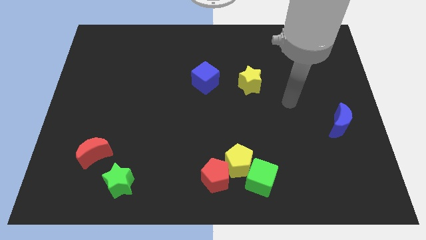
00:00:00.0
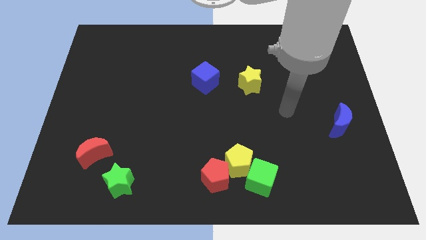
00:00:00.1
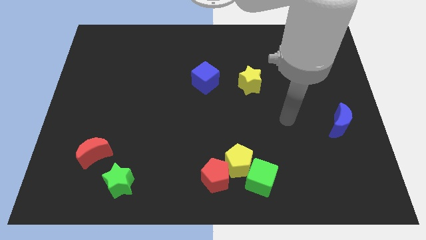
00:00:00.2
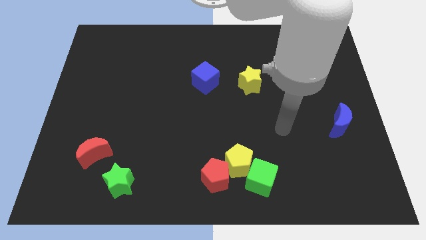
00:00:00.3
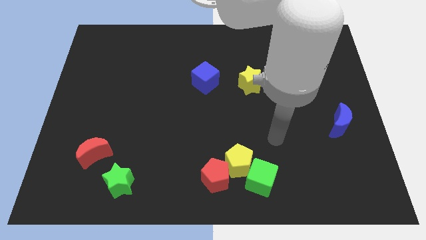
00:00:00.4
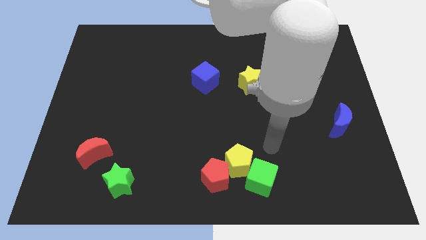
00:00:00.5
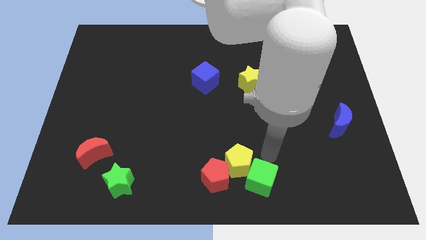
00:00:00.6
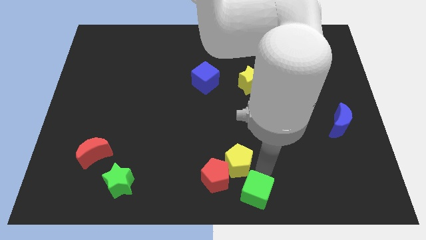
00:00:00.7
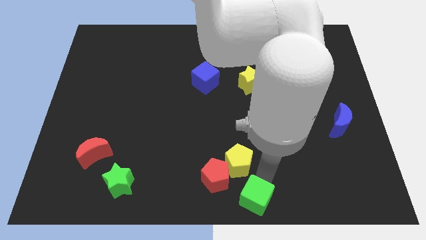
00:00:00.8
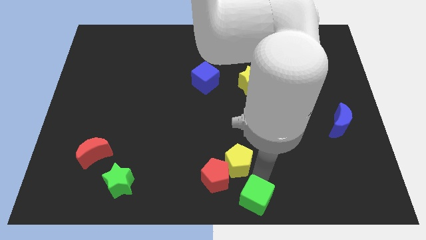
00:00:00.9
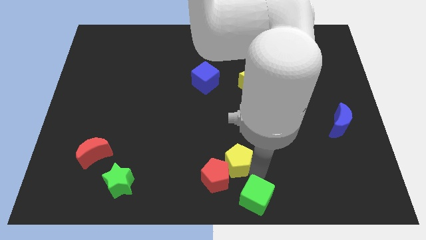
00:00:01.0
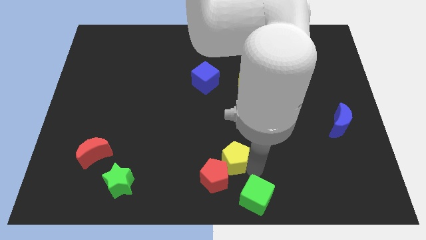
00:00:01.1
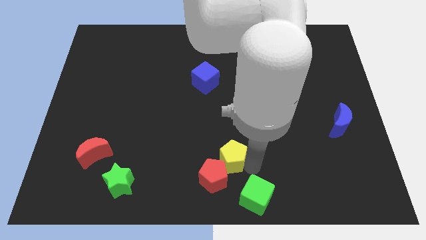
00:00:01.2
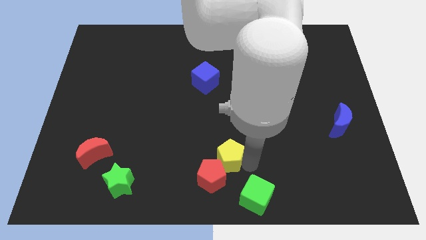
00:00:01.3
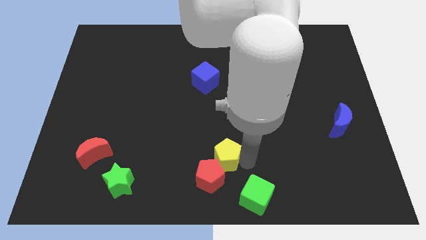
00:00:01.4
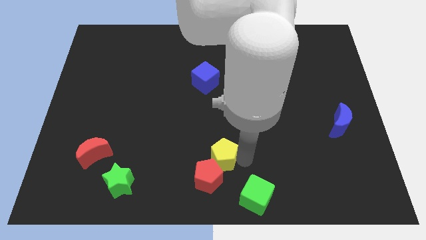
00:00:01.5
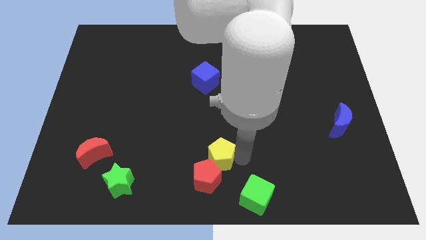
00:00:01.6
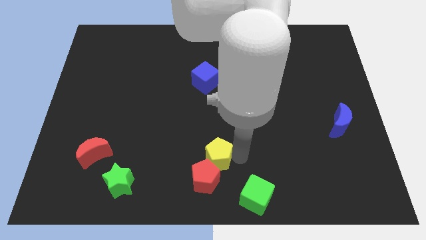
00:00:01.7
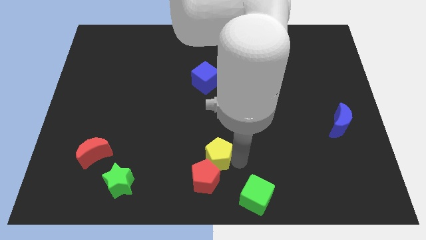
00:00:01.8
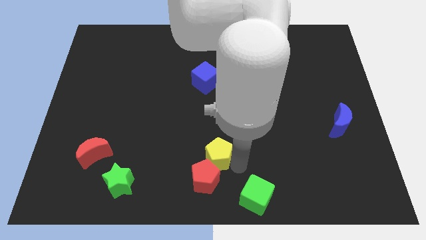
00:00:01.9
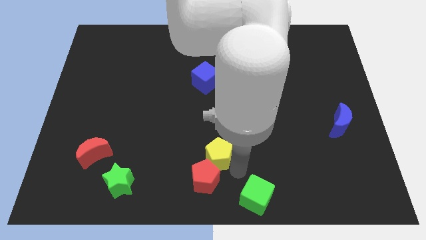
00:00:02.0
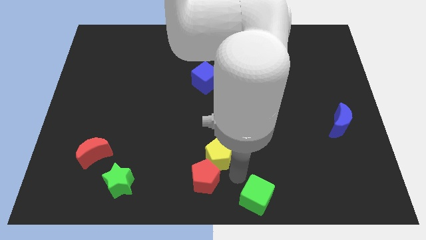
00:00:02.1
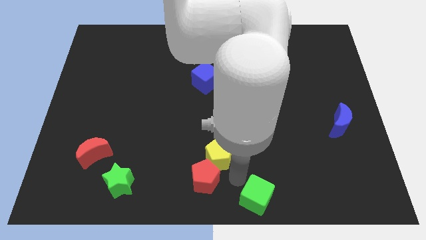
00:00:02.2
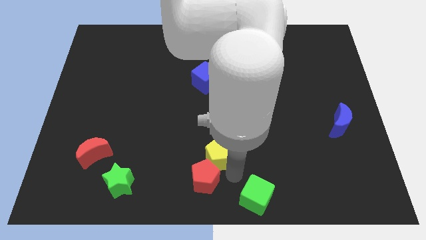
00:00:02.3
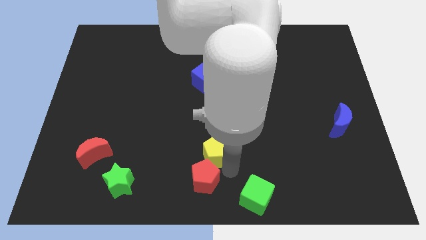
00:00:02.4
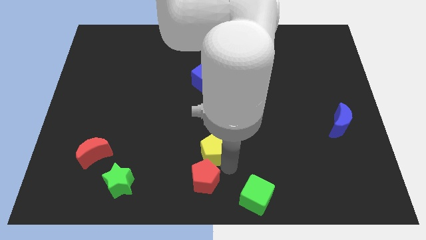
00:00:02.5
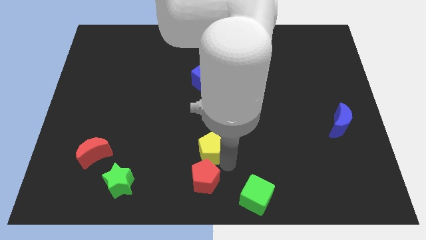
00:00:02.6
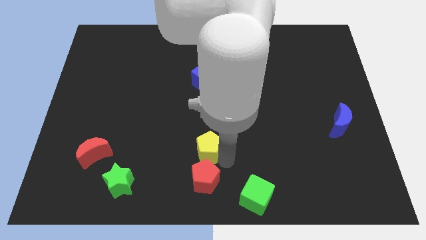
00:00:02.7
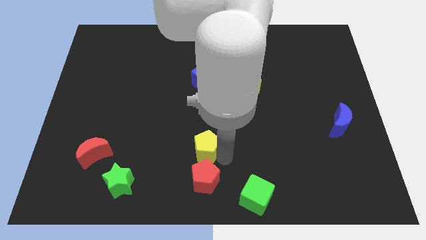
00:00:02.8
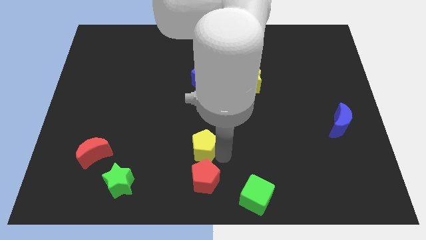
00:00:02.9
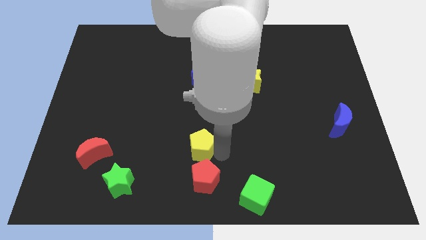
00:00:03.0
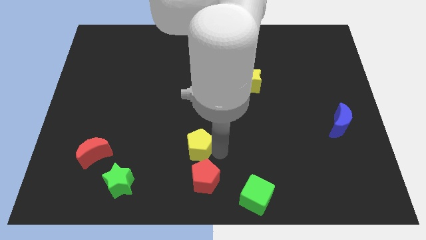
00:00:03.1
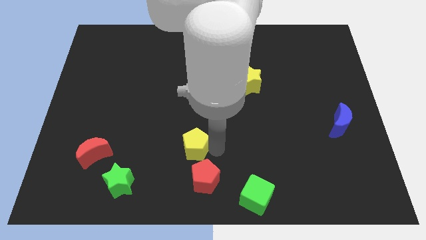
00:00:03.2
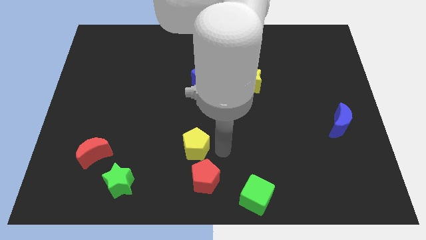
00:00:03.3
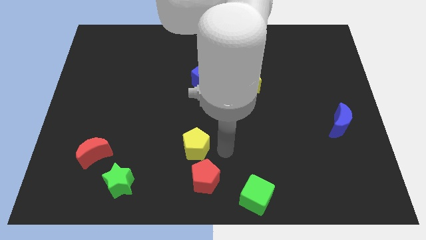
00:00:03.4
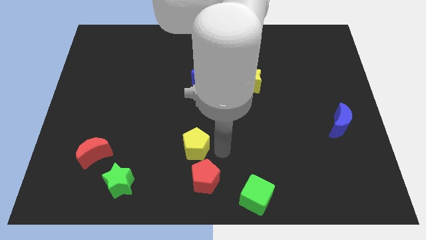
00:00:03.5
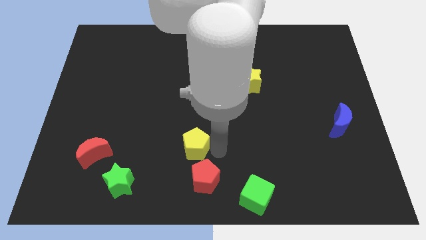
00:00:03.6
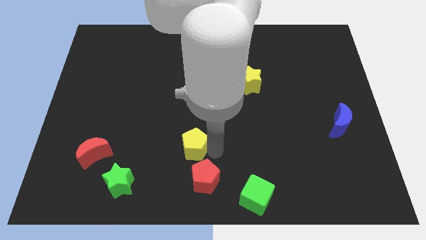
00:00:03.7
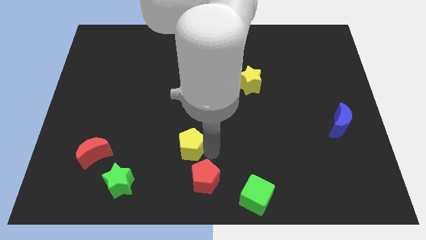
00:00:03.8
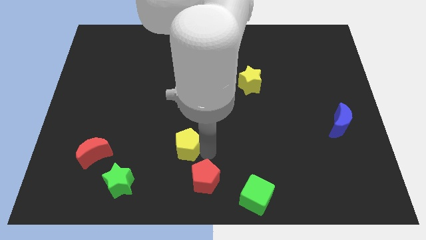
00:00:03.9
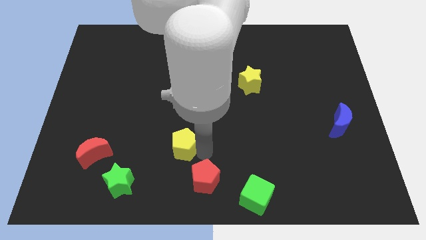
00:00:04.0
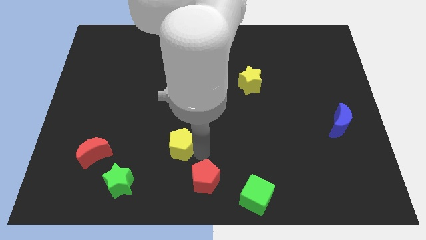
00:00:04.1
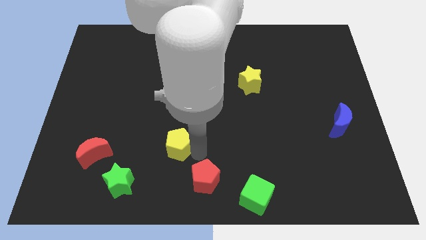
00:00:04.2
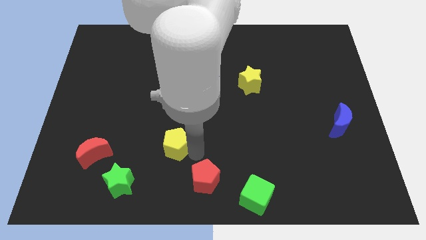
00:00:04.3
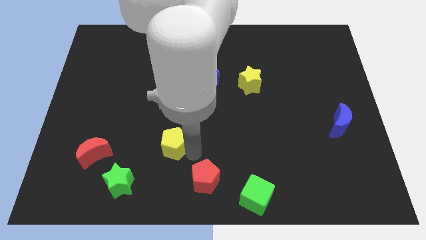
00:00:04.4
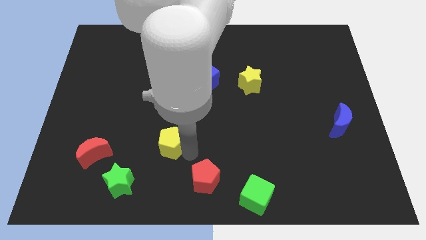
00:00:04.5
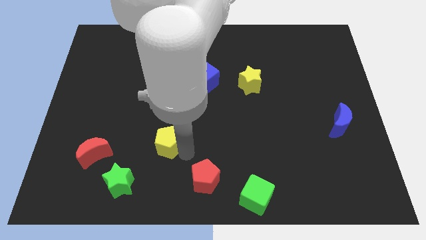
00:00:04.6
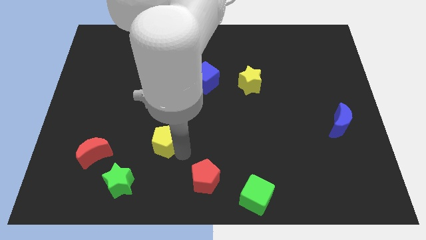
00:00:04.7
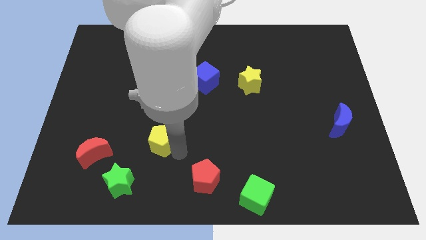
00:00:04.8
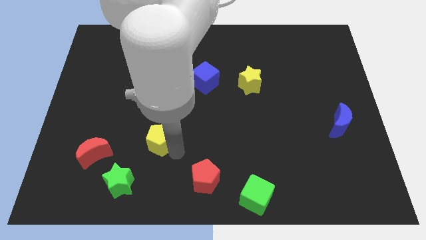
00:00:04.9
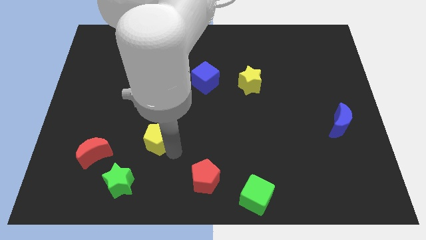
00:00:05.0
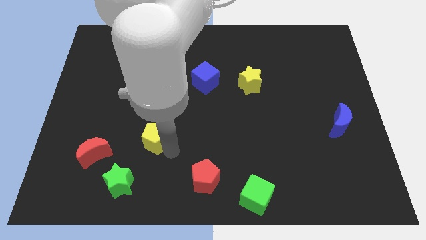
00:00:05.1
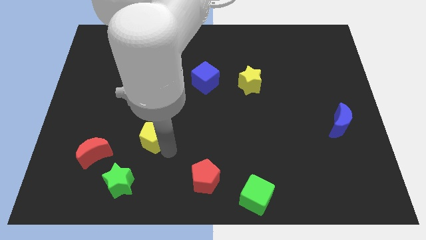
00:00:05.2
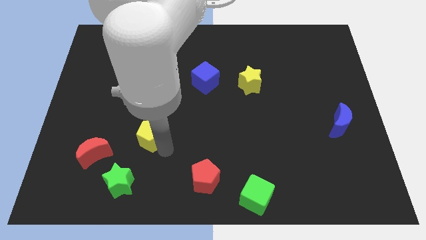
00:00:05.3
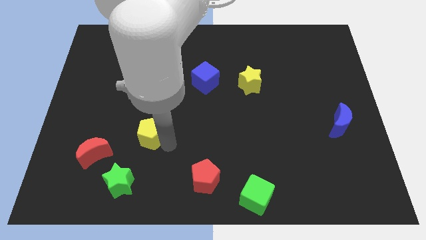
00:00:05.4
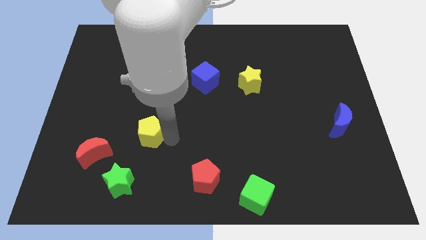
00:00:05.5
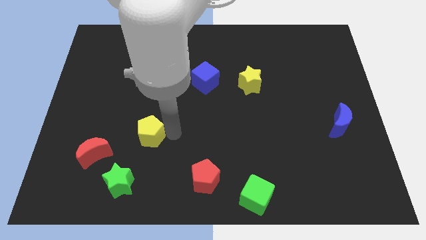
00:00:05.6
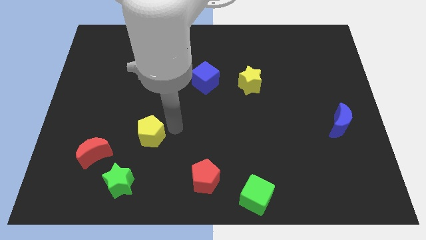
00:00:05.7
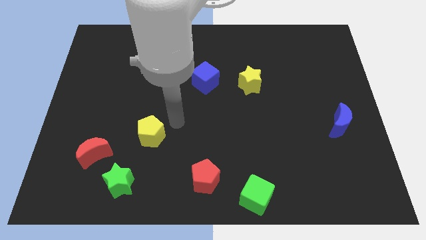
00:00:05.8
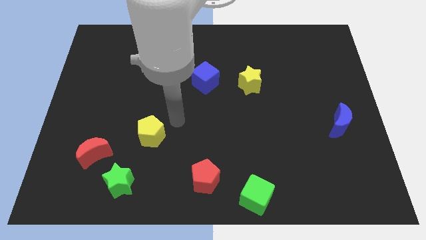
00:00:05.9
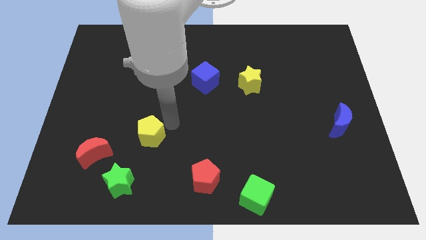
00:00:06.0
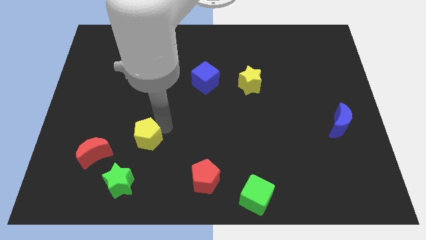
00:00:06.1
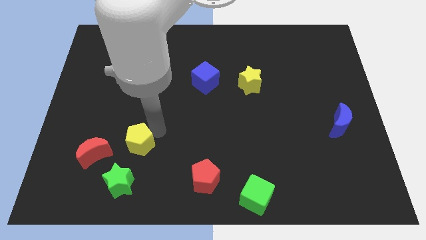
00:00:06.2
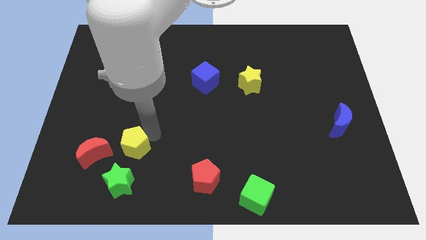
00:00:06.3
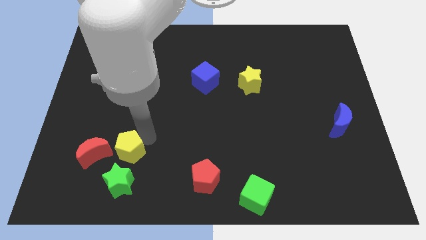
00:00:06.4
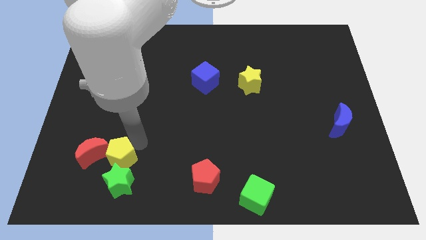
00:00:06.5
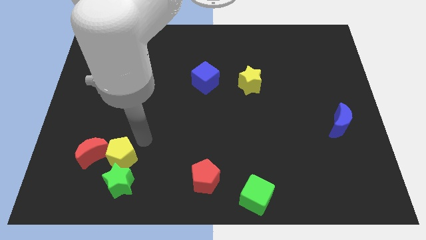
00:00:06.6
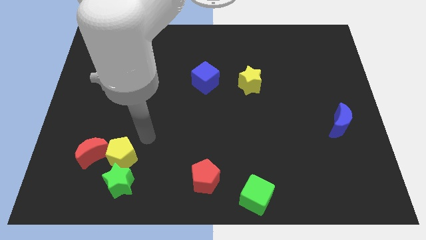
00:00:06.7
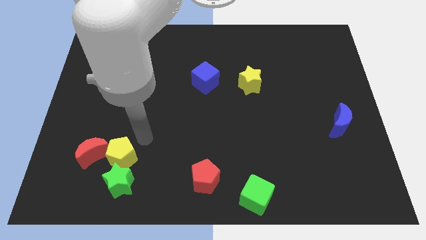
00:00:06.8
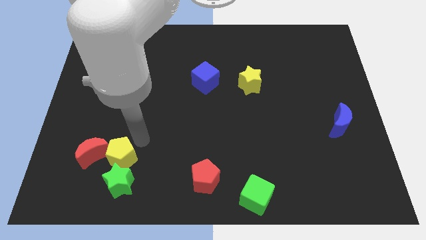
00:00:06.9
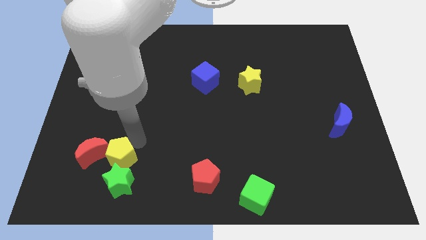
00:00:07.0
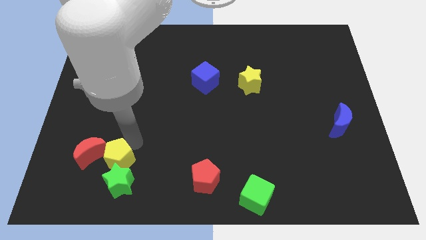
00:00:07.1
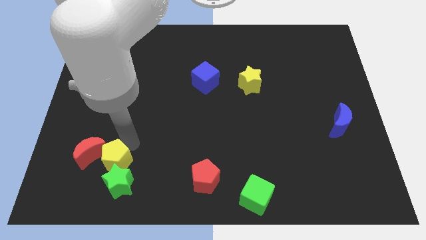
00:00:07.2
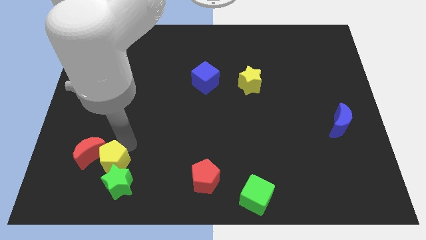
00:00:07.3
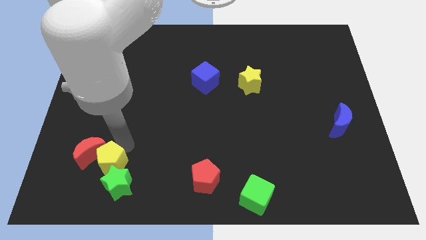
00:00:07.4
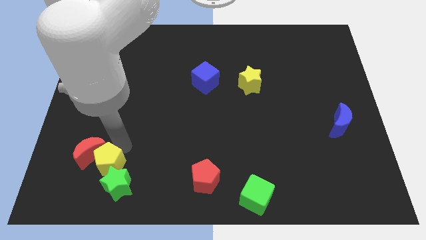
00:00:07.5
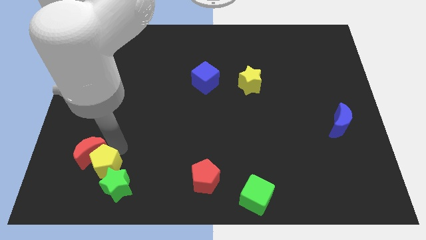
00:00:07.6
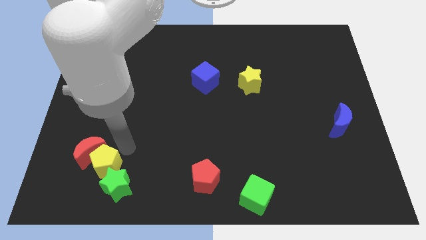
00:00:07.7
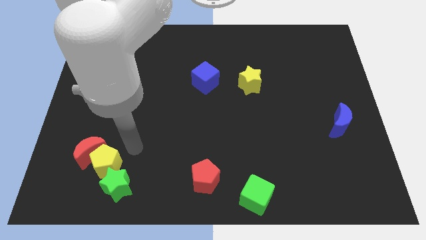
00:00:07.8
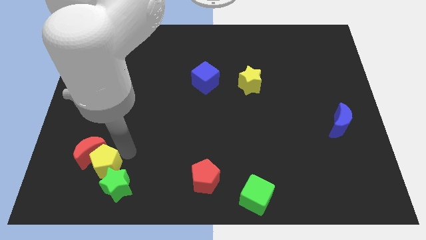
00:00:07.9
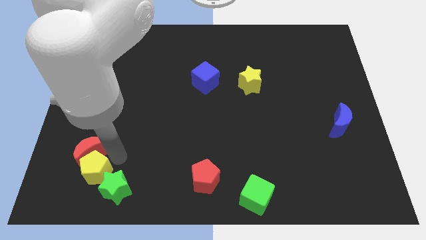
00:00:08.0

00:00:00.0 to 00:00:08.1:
push the yellow pentagon to the left of the green star
